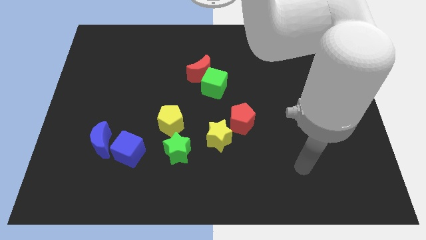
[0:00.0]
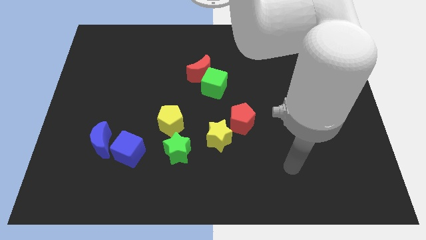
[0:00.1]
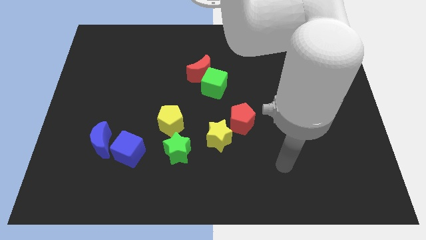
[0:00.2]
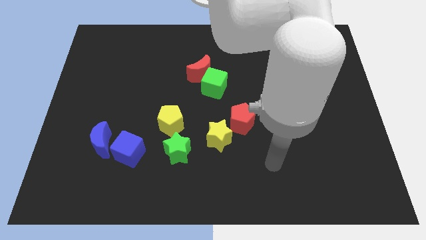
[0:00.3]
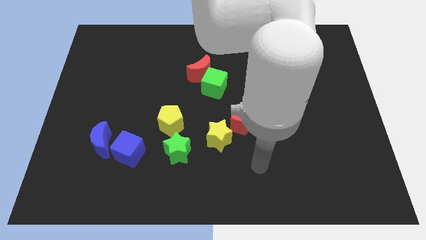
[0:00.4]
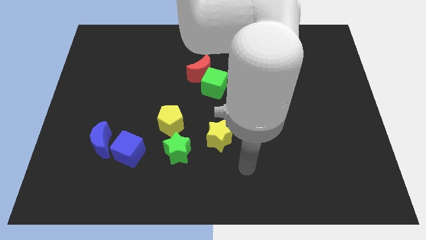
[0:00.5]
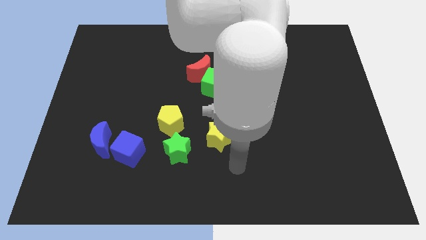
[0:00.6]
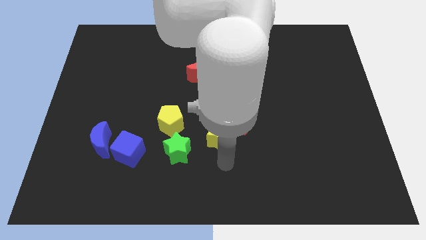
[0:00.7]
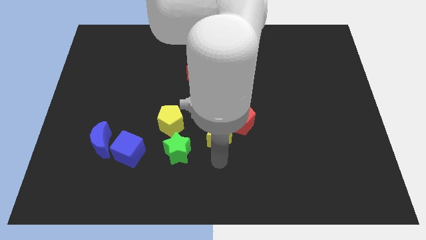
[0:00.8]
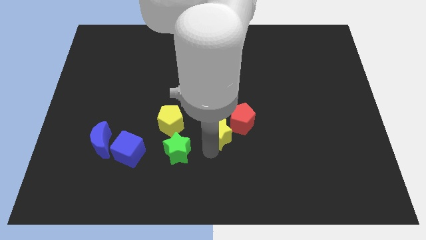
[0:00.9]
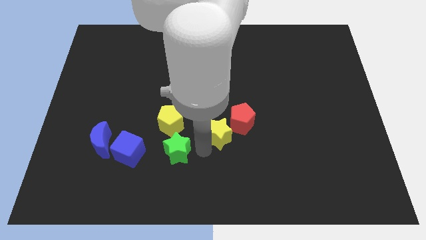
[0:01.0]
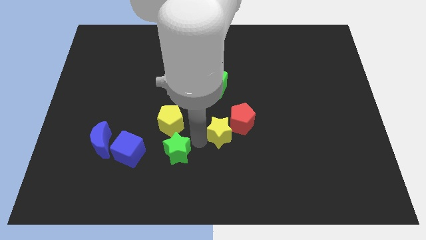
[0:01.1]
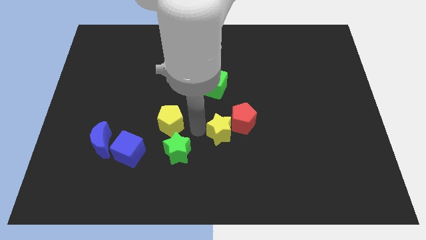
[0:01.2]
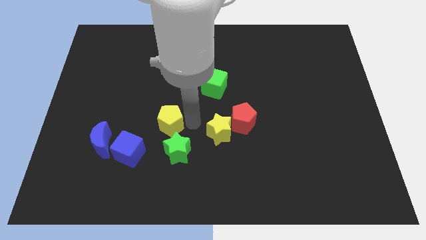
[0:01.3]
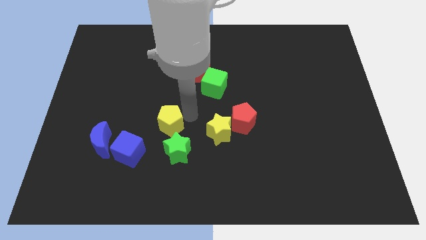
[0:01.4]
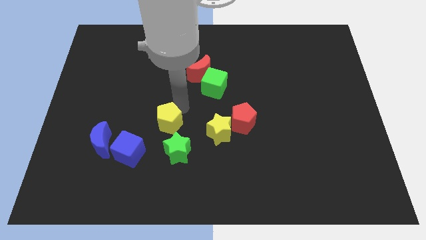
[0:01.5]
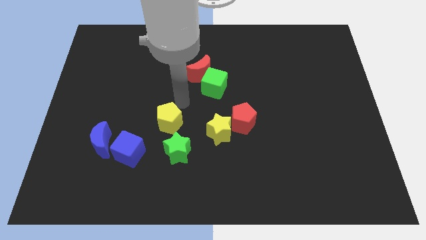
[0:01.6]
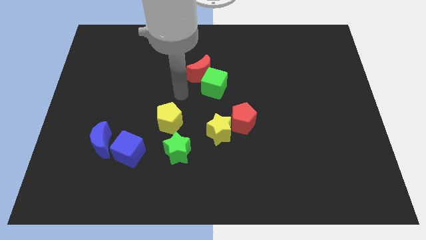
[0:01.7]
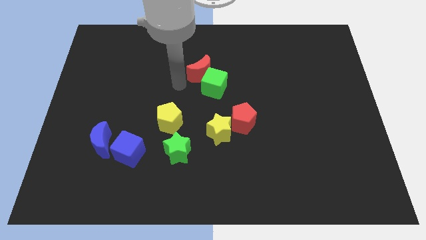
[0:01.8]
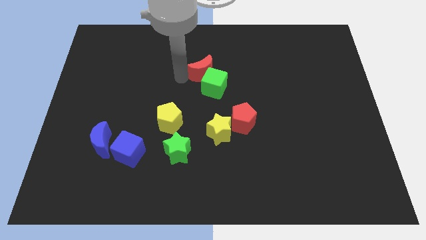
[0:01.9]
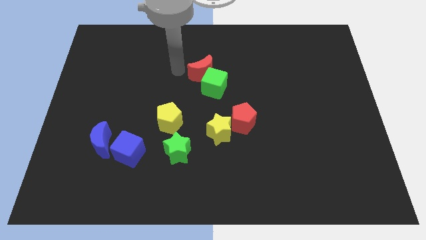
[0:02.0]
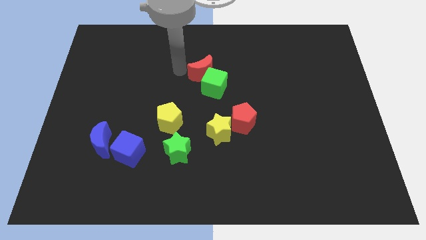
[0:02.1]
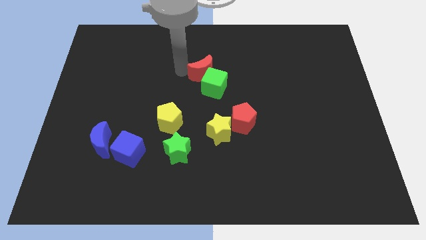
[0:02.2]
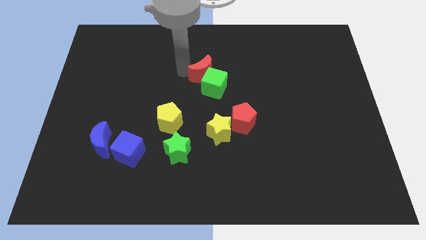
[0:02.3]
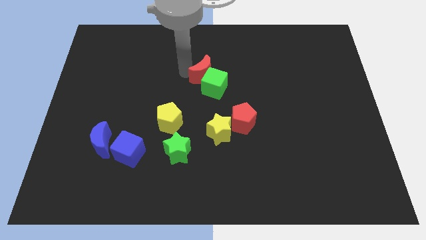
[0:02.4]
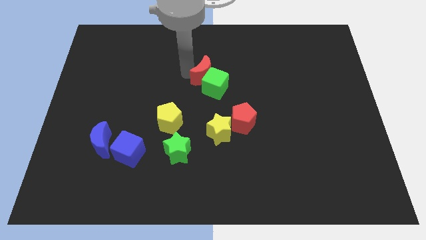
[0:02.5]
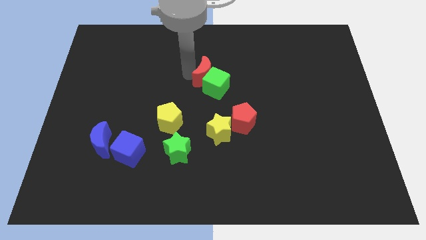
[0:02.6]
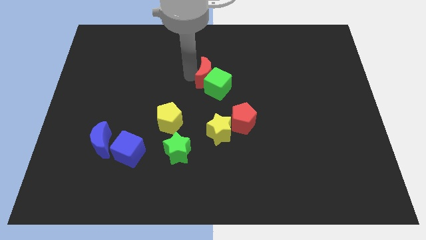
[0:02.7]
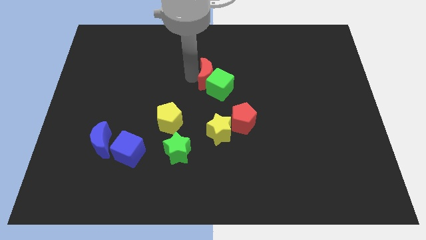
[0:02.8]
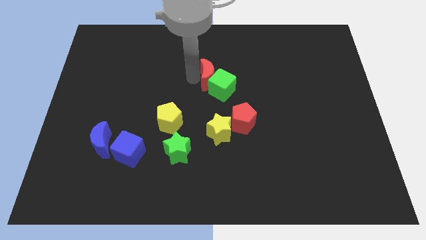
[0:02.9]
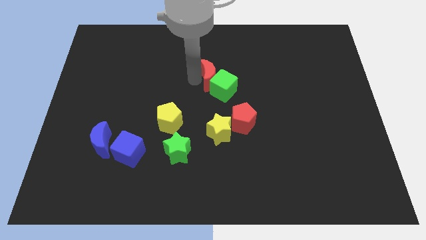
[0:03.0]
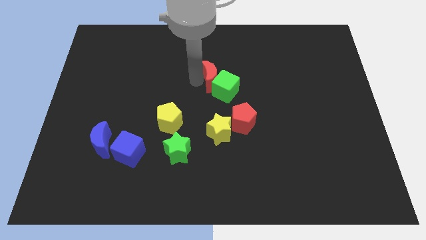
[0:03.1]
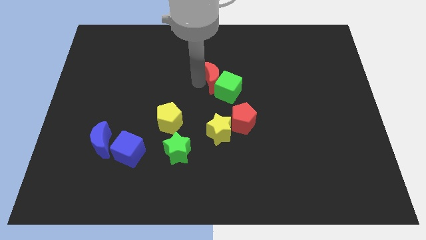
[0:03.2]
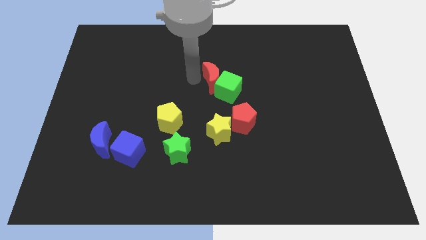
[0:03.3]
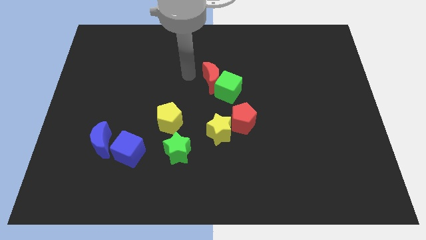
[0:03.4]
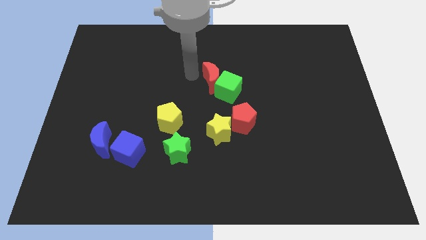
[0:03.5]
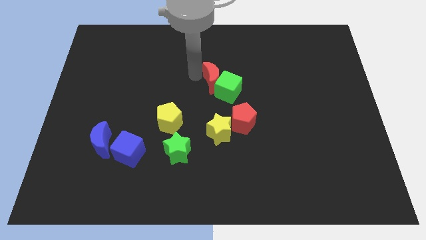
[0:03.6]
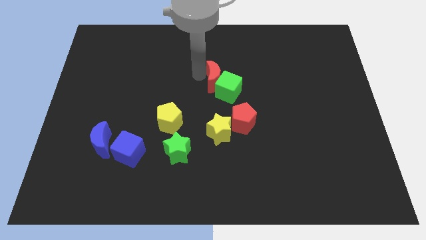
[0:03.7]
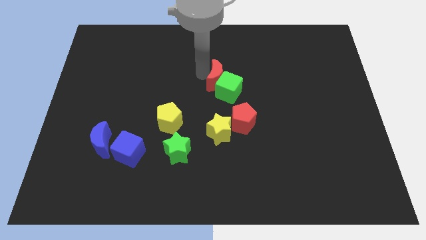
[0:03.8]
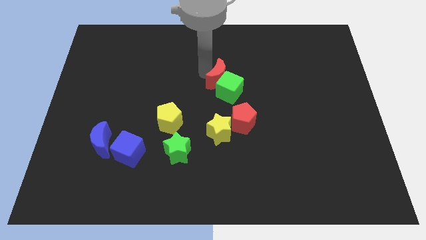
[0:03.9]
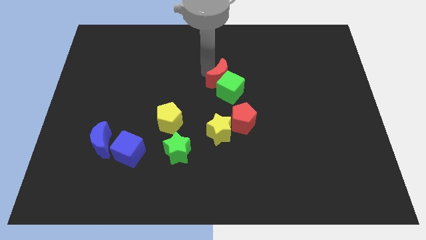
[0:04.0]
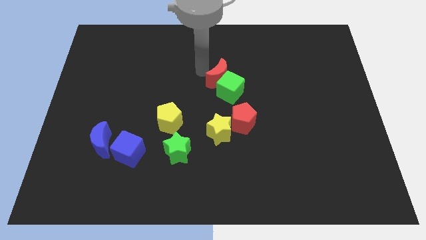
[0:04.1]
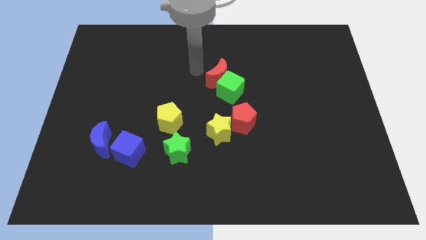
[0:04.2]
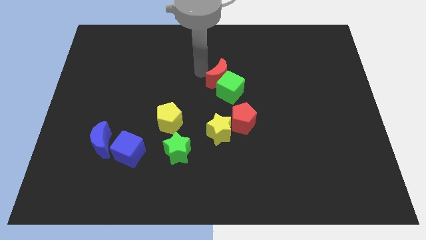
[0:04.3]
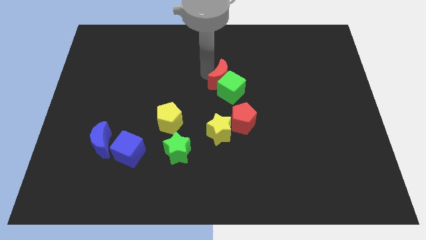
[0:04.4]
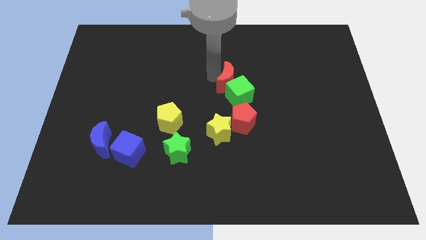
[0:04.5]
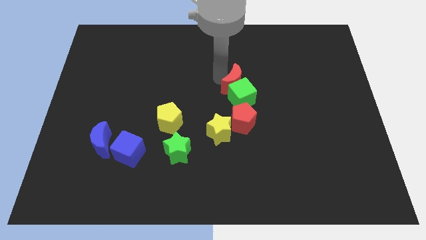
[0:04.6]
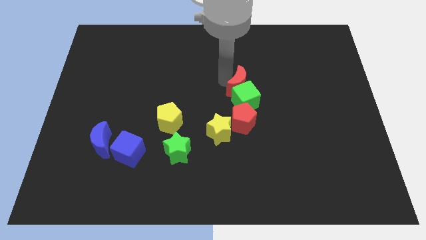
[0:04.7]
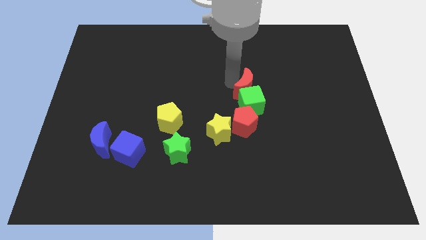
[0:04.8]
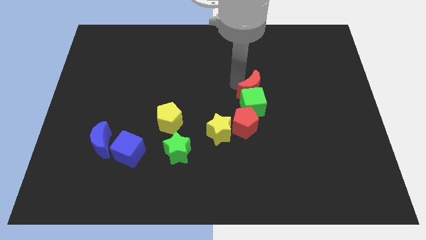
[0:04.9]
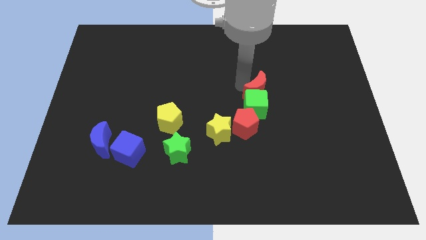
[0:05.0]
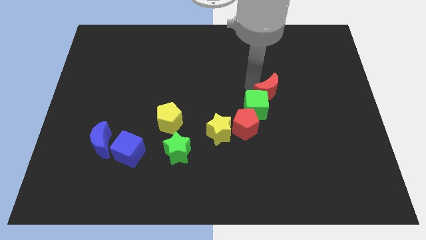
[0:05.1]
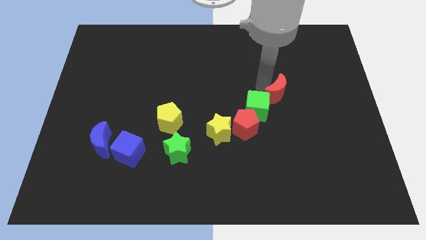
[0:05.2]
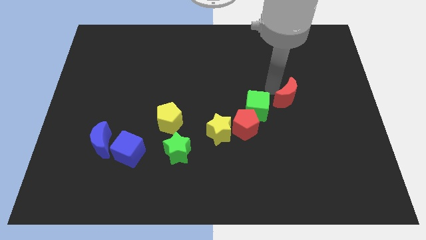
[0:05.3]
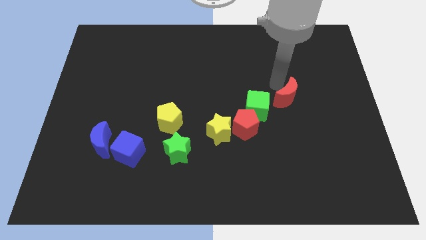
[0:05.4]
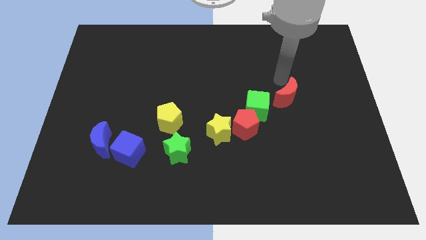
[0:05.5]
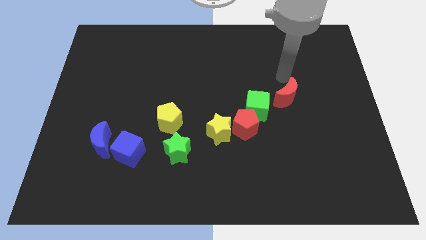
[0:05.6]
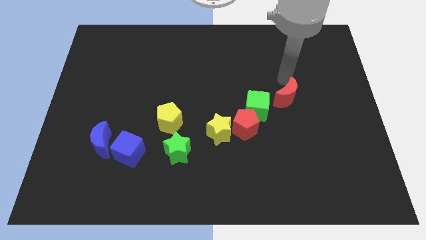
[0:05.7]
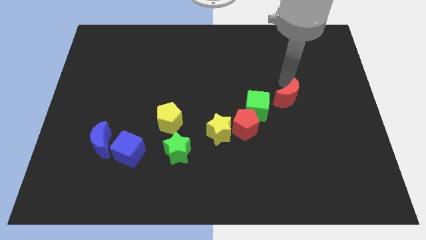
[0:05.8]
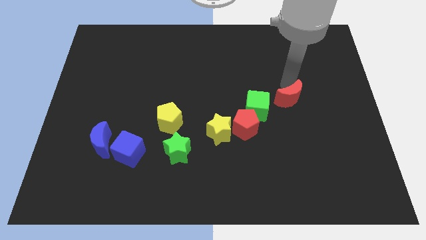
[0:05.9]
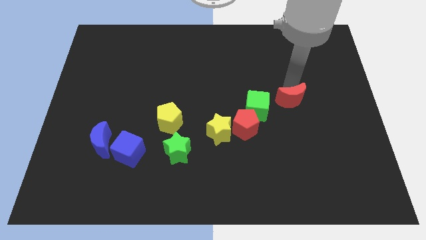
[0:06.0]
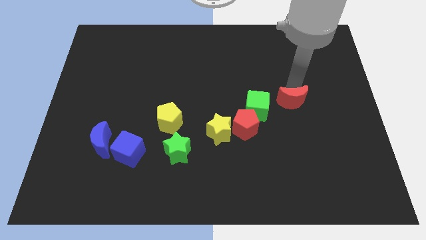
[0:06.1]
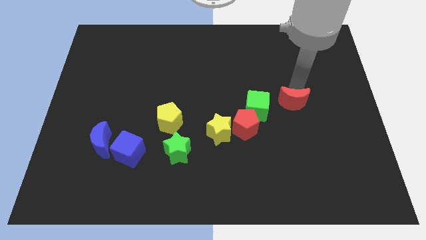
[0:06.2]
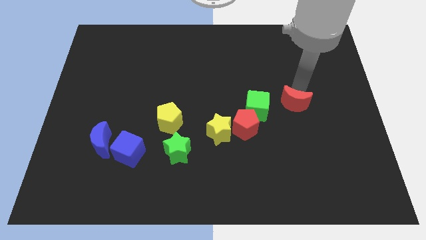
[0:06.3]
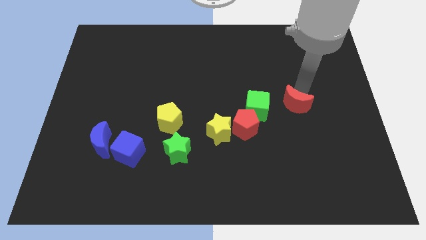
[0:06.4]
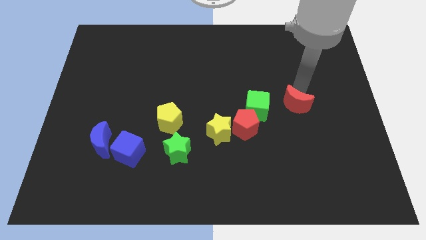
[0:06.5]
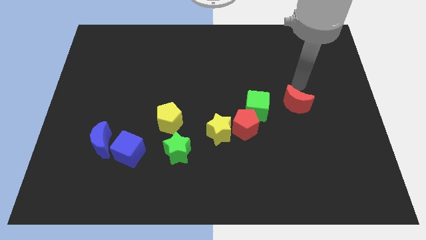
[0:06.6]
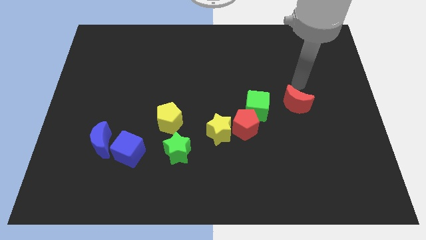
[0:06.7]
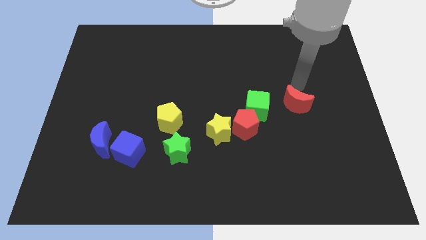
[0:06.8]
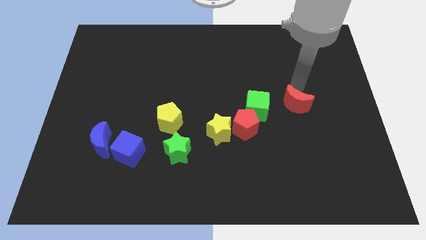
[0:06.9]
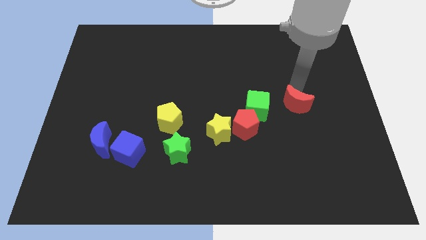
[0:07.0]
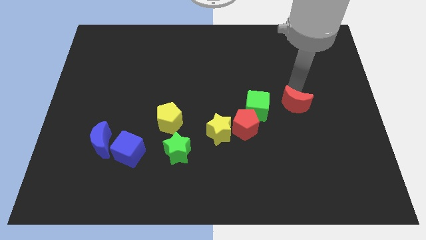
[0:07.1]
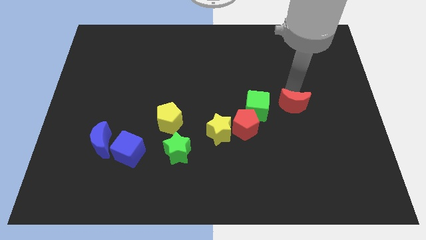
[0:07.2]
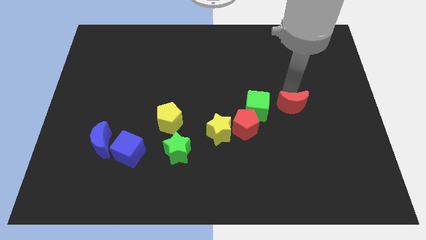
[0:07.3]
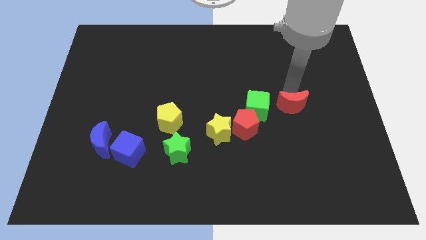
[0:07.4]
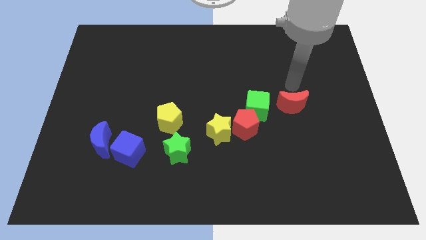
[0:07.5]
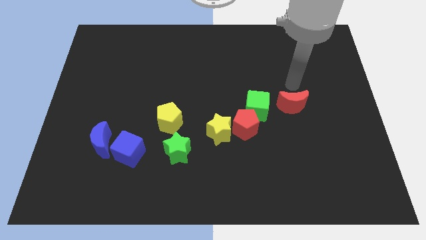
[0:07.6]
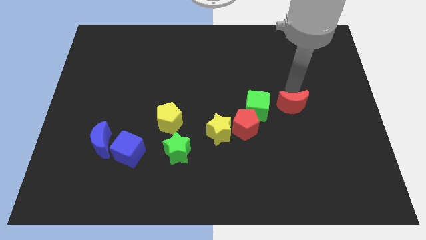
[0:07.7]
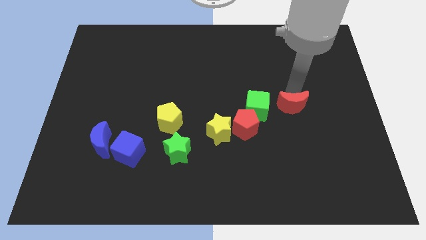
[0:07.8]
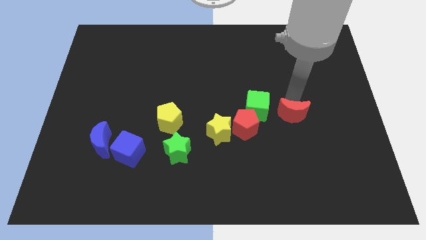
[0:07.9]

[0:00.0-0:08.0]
move the red moon to the right side of the red pentagon
